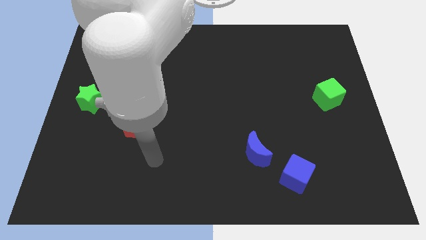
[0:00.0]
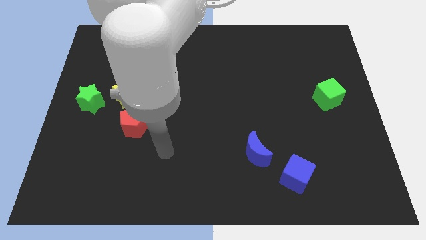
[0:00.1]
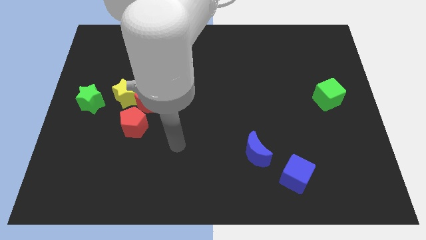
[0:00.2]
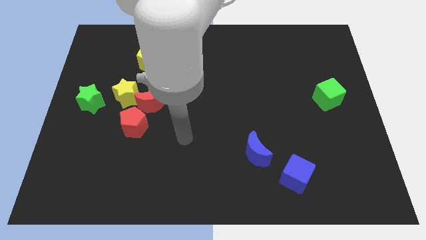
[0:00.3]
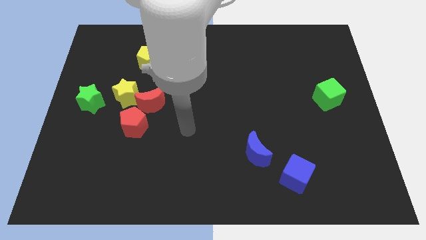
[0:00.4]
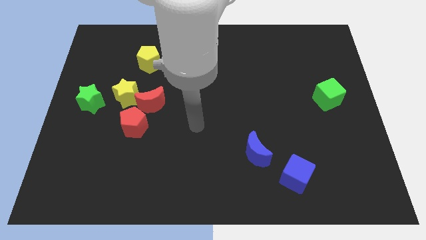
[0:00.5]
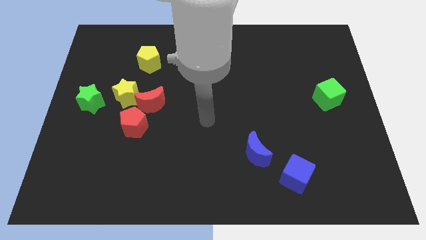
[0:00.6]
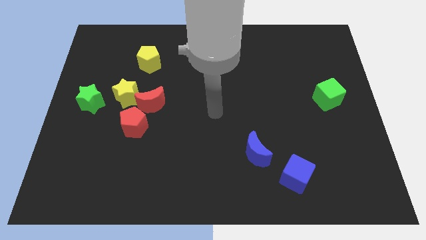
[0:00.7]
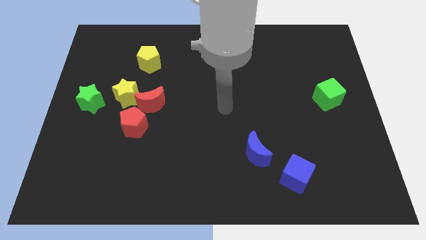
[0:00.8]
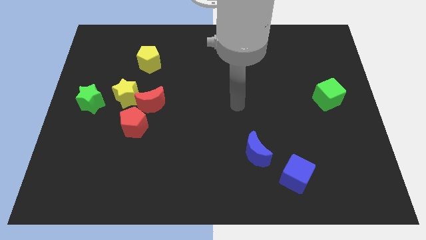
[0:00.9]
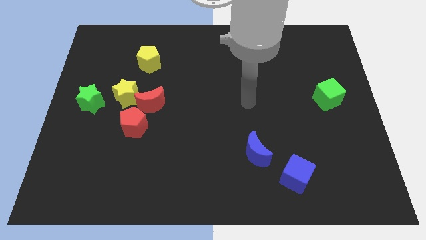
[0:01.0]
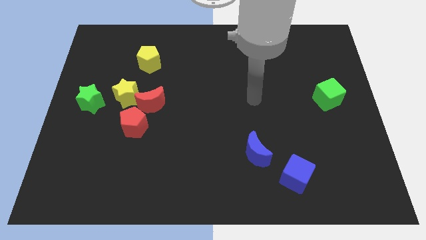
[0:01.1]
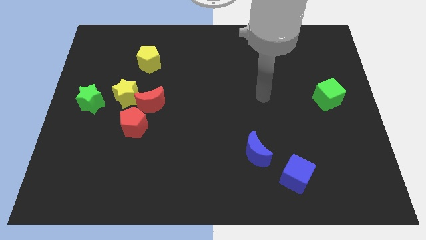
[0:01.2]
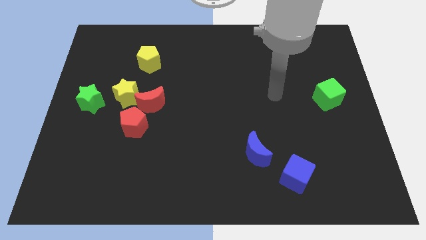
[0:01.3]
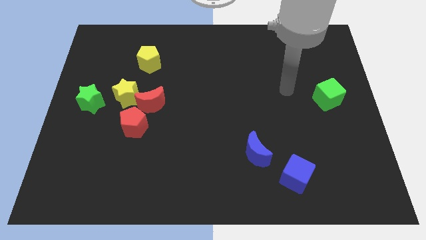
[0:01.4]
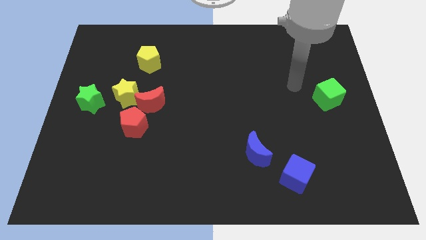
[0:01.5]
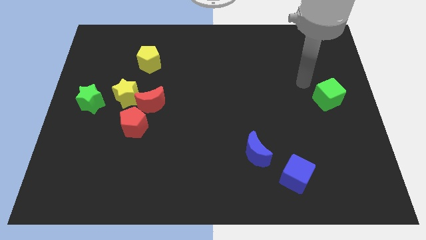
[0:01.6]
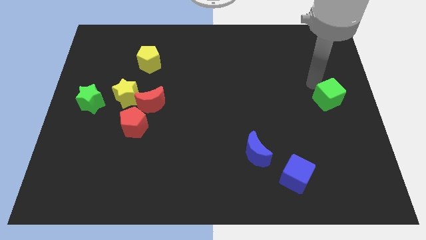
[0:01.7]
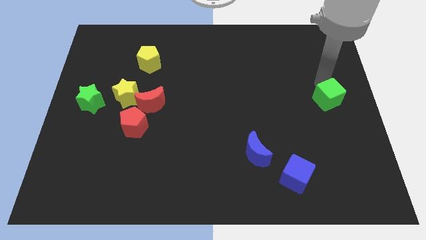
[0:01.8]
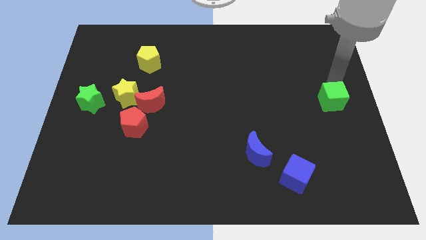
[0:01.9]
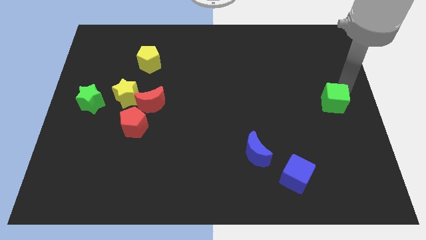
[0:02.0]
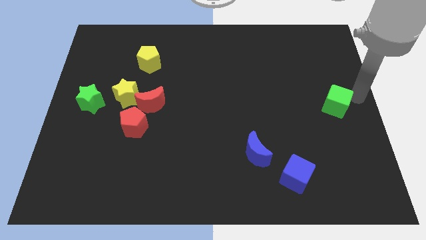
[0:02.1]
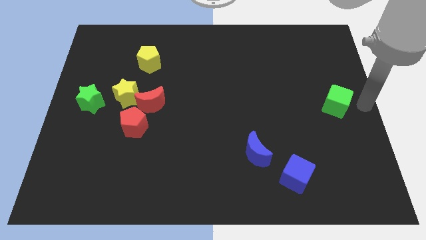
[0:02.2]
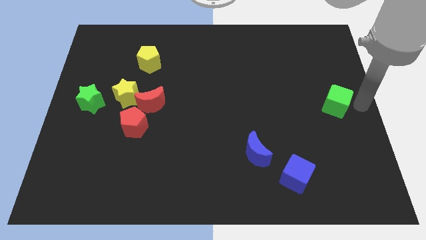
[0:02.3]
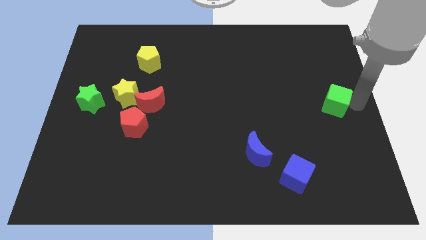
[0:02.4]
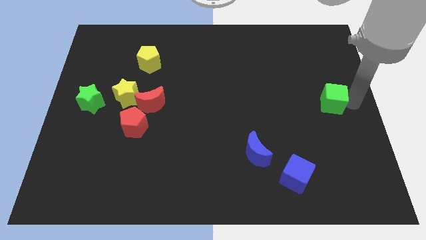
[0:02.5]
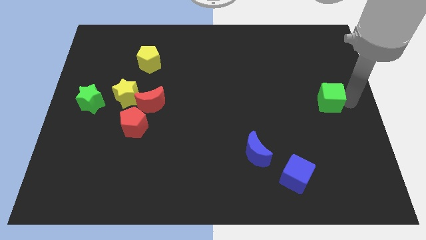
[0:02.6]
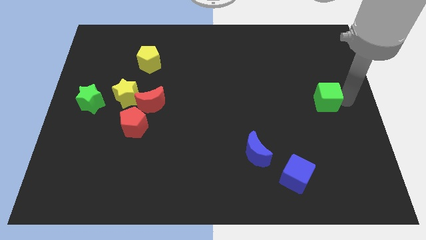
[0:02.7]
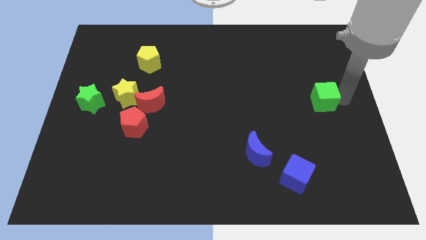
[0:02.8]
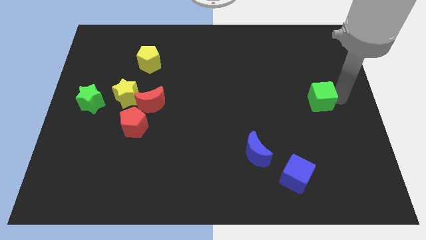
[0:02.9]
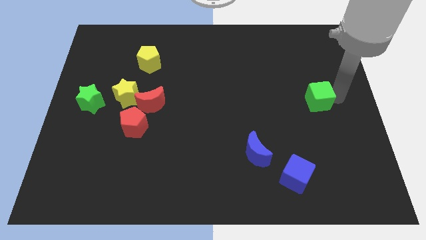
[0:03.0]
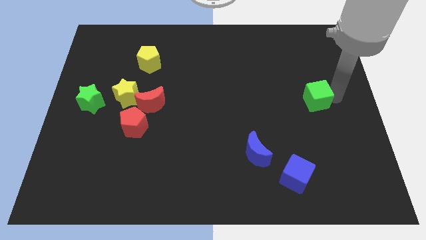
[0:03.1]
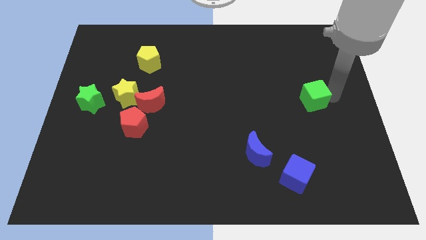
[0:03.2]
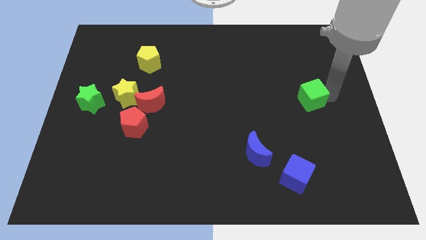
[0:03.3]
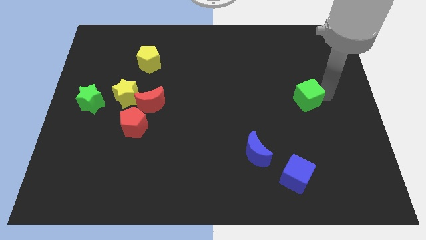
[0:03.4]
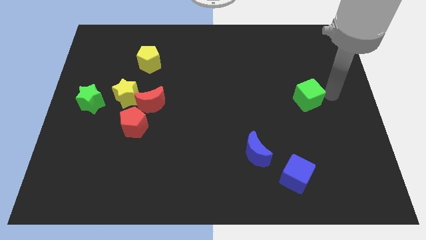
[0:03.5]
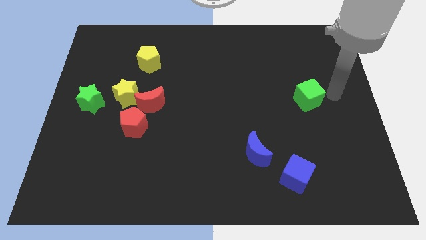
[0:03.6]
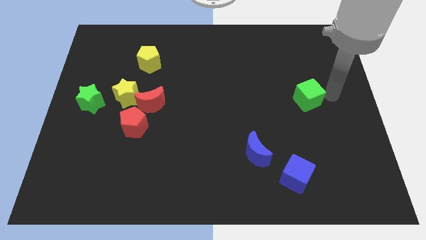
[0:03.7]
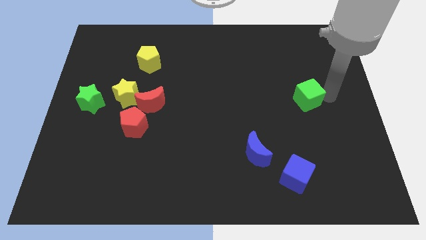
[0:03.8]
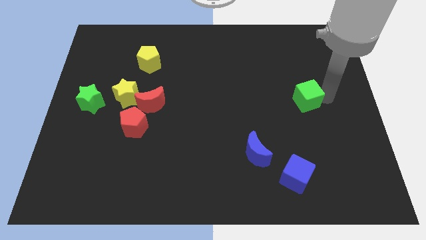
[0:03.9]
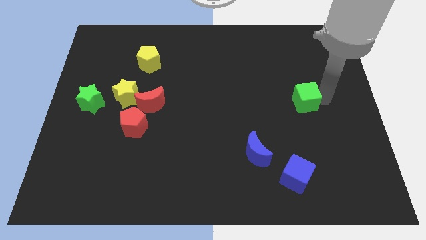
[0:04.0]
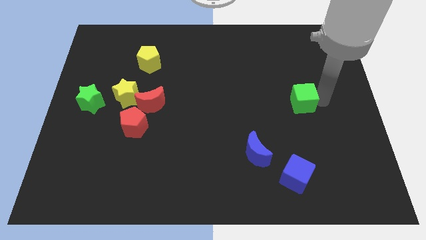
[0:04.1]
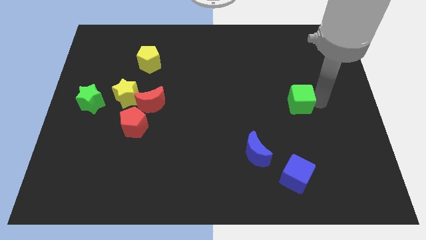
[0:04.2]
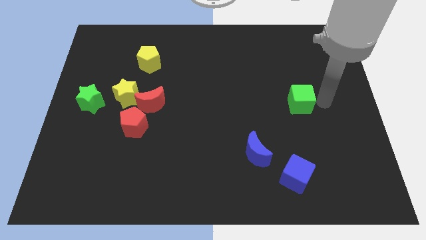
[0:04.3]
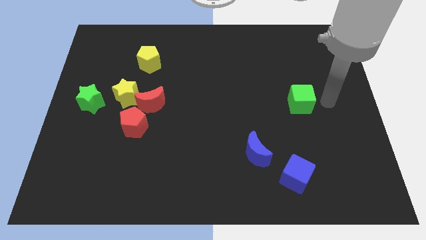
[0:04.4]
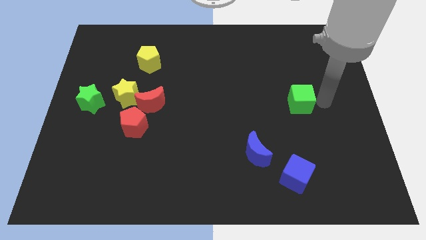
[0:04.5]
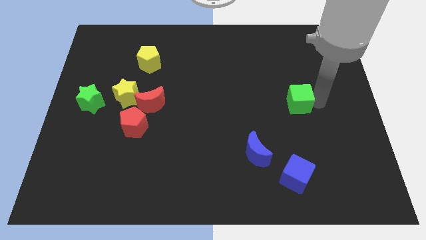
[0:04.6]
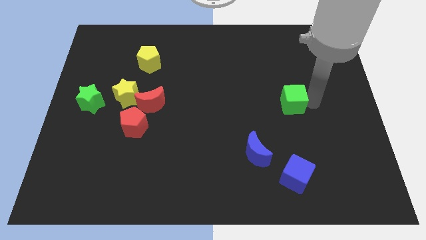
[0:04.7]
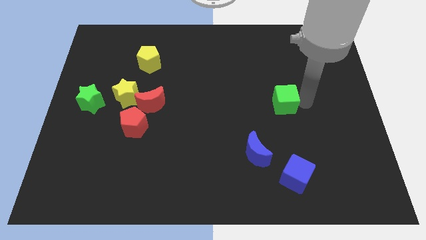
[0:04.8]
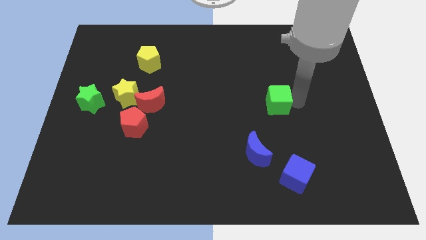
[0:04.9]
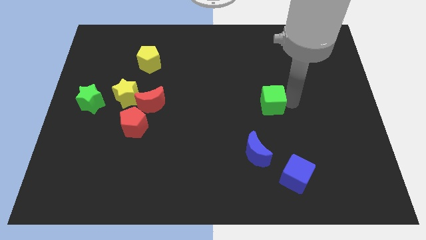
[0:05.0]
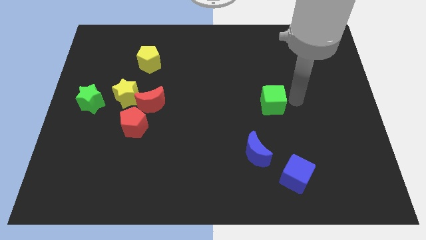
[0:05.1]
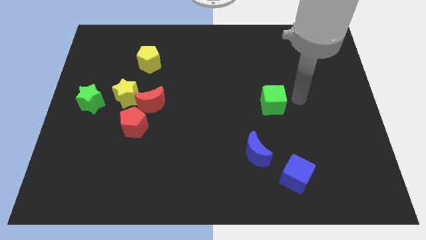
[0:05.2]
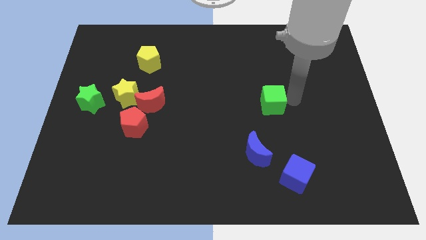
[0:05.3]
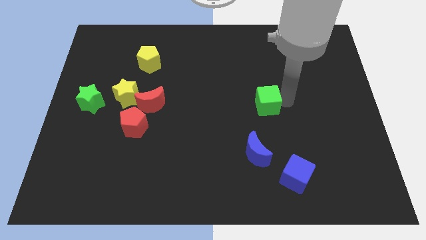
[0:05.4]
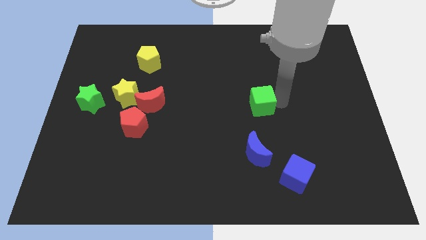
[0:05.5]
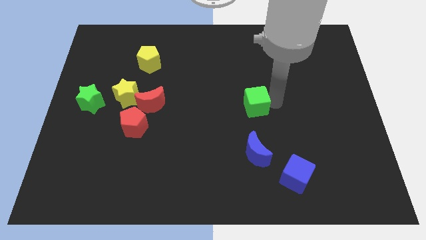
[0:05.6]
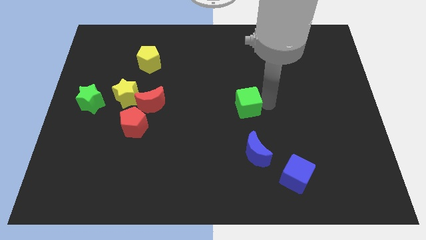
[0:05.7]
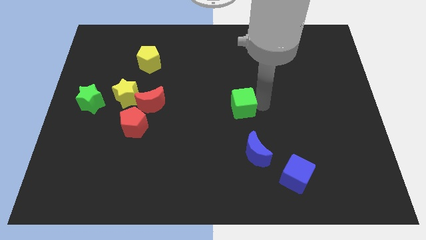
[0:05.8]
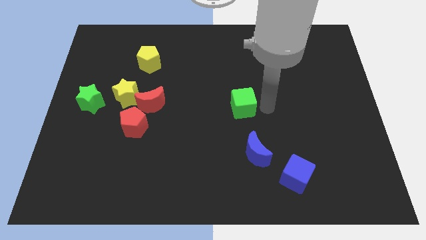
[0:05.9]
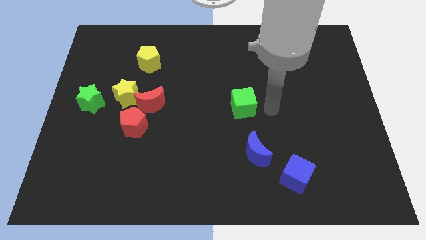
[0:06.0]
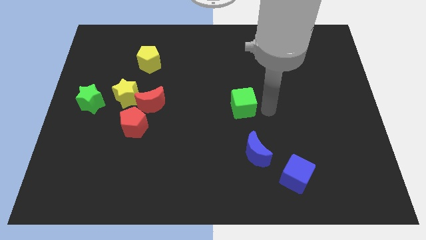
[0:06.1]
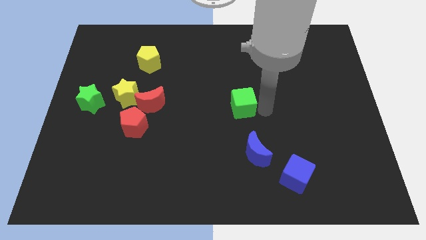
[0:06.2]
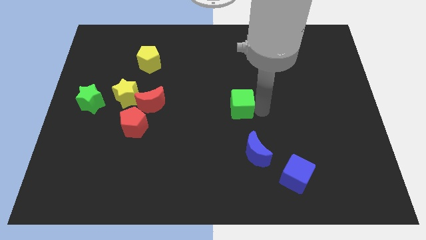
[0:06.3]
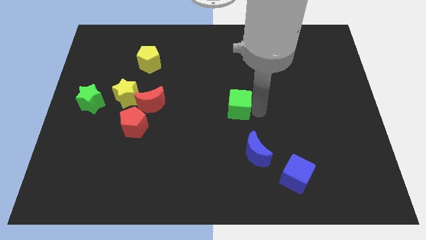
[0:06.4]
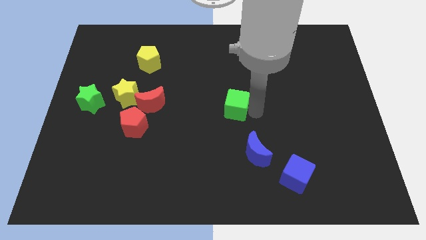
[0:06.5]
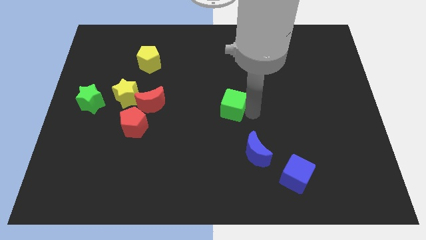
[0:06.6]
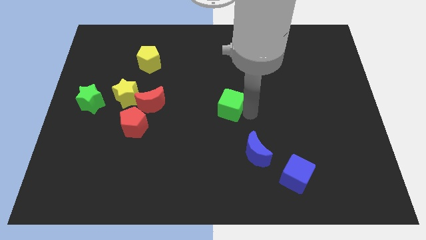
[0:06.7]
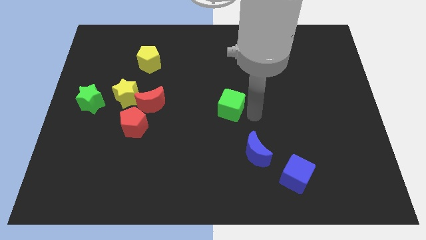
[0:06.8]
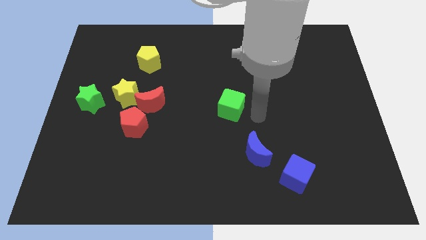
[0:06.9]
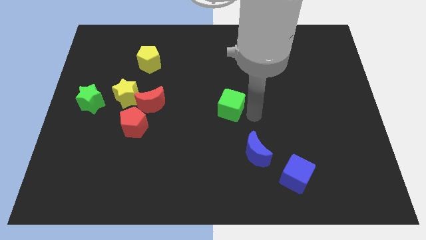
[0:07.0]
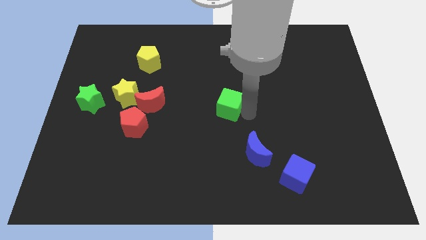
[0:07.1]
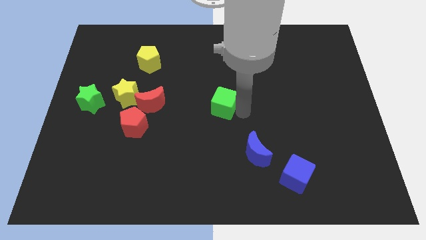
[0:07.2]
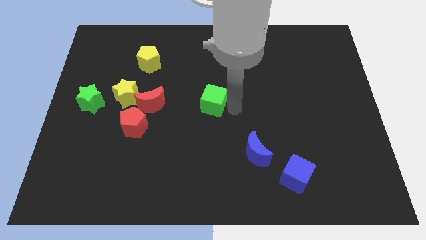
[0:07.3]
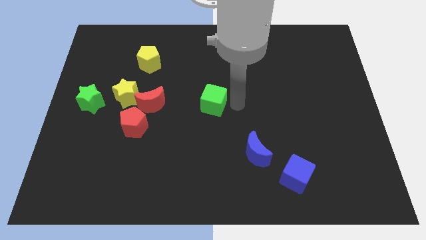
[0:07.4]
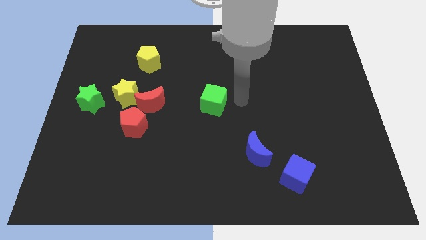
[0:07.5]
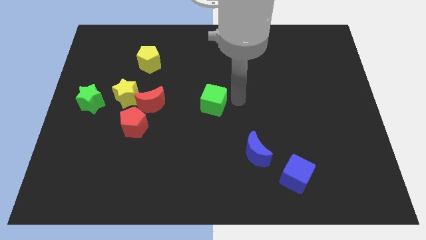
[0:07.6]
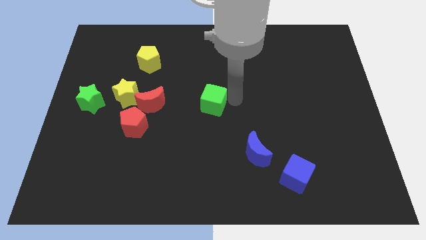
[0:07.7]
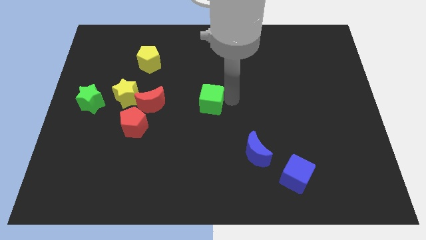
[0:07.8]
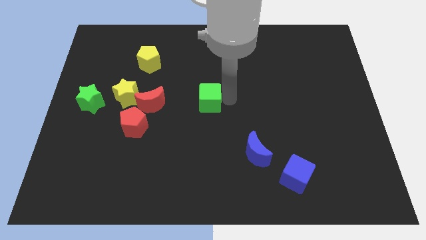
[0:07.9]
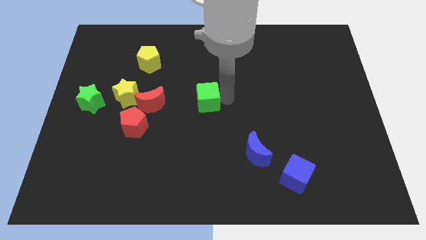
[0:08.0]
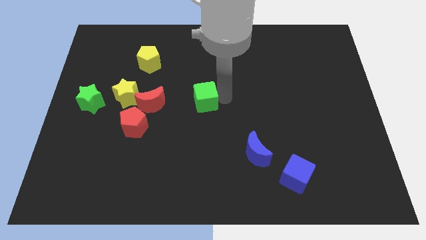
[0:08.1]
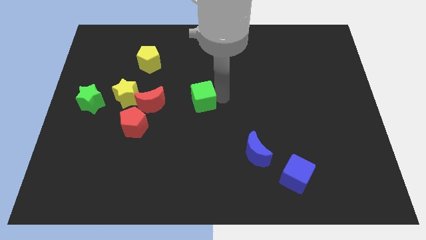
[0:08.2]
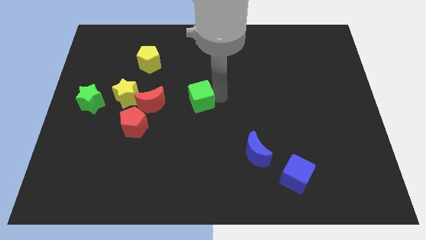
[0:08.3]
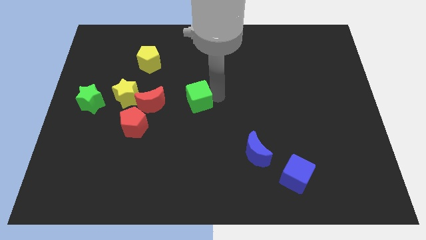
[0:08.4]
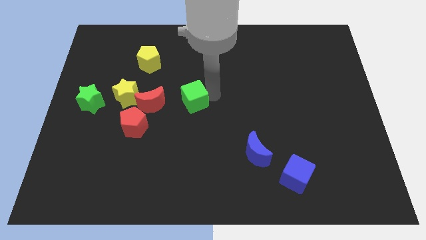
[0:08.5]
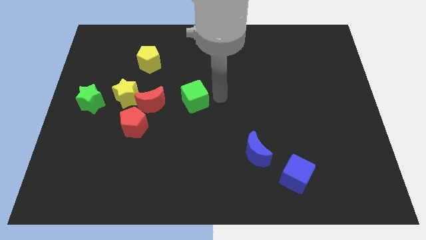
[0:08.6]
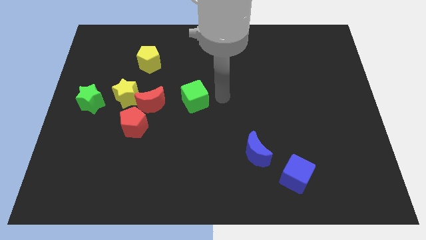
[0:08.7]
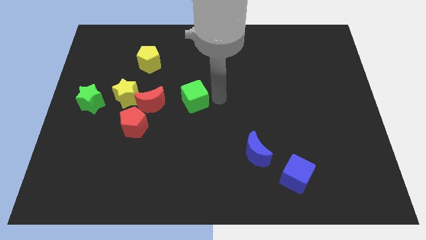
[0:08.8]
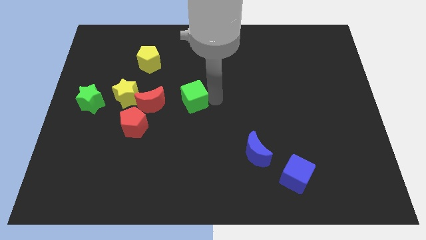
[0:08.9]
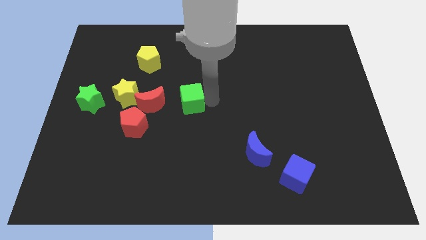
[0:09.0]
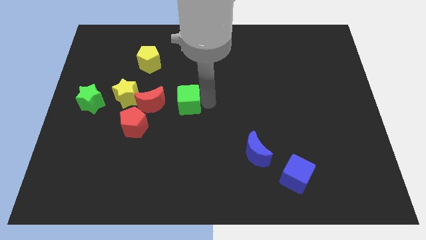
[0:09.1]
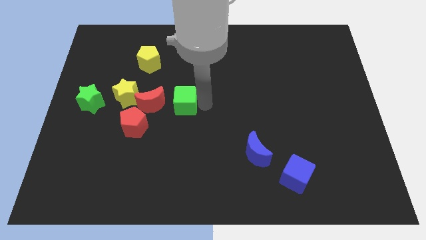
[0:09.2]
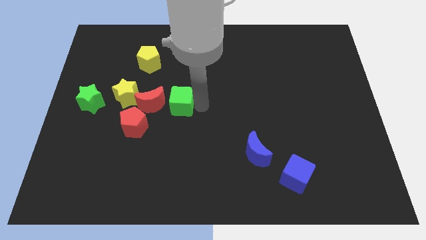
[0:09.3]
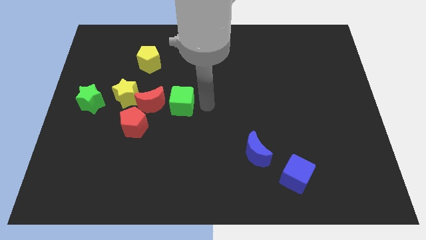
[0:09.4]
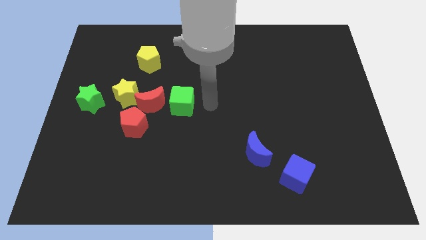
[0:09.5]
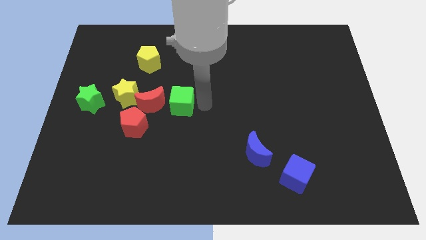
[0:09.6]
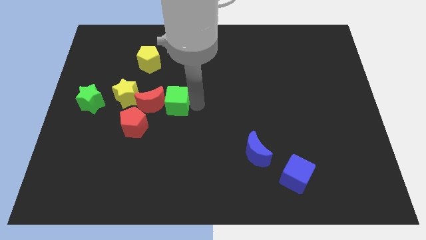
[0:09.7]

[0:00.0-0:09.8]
move the green cube close to the red moon
